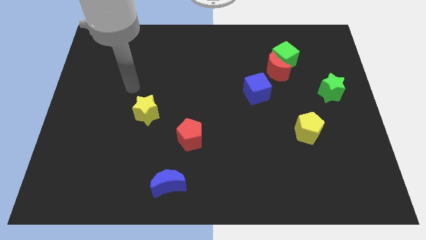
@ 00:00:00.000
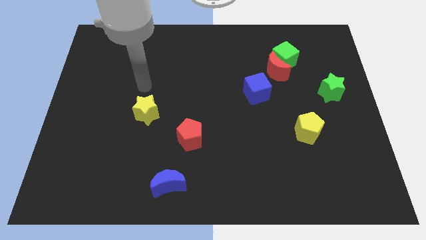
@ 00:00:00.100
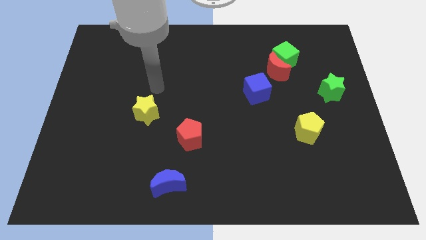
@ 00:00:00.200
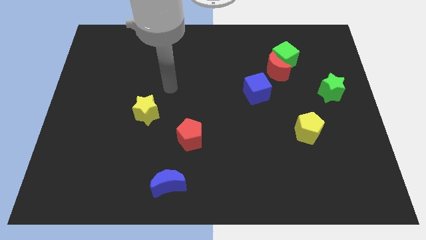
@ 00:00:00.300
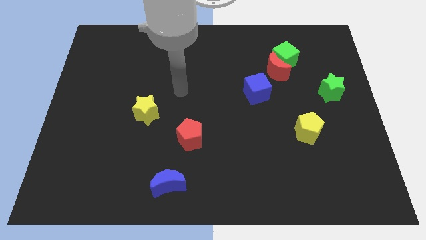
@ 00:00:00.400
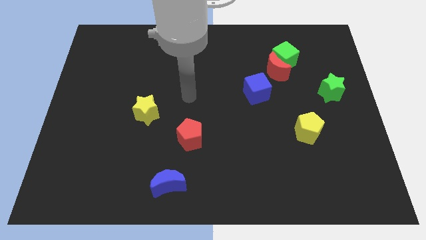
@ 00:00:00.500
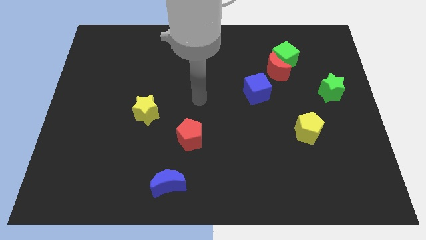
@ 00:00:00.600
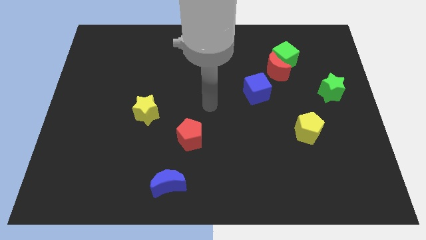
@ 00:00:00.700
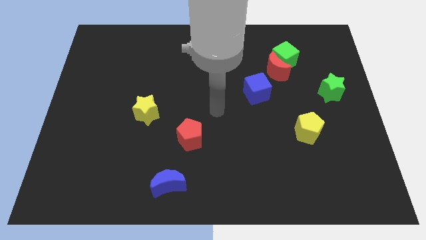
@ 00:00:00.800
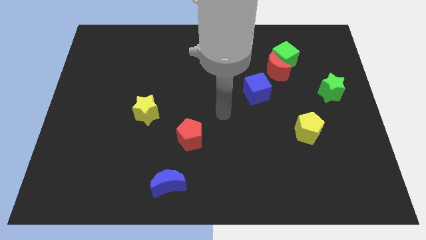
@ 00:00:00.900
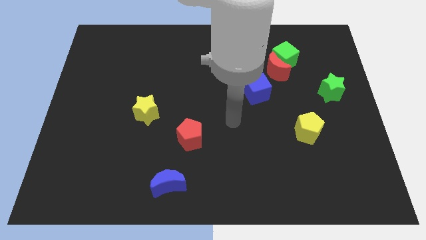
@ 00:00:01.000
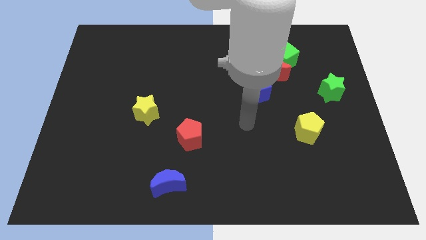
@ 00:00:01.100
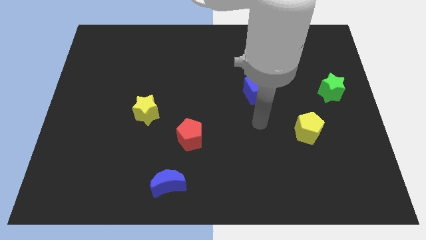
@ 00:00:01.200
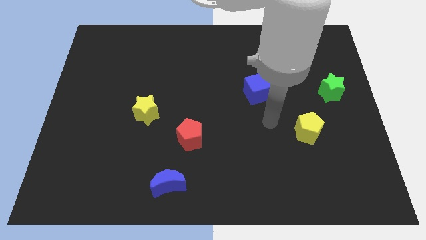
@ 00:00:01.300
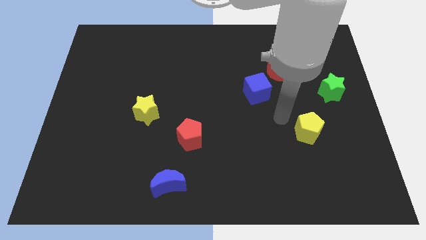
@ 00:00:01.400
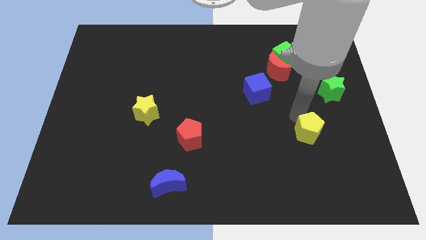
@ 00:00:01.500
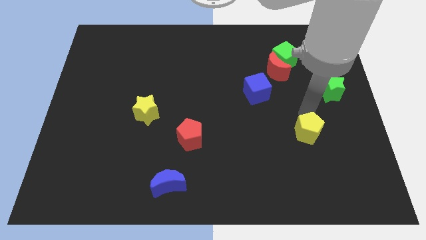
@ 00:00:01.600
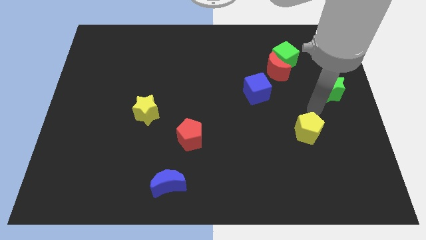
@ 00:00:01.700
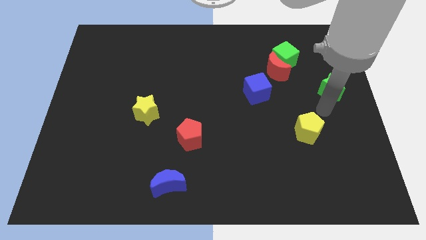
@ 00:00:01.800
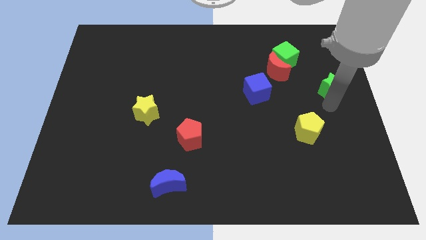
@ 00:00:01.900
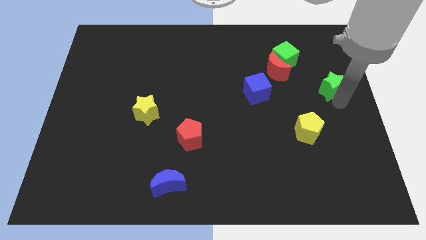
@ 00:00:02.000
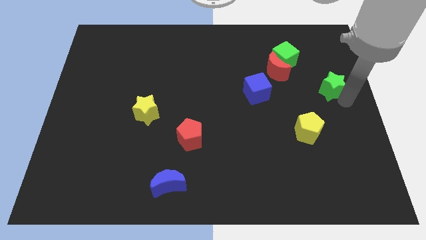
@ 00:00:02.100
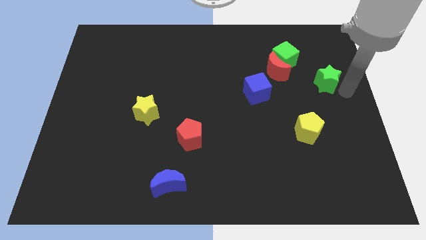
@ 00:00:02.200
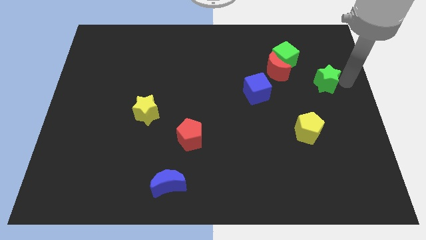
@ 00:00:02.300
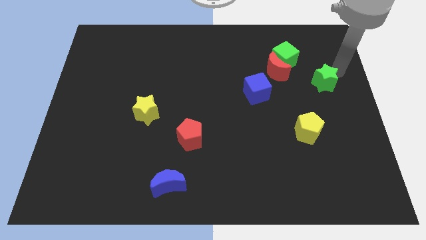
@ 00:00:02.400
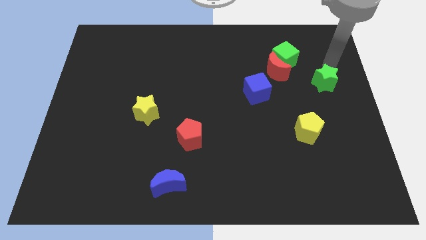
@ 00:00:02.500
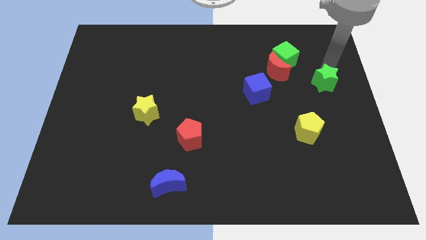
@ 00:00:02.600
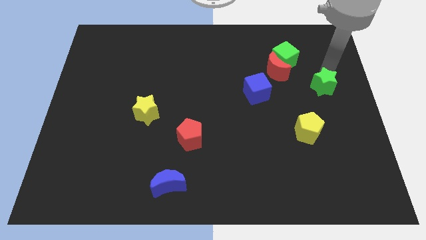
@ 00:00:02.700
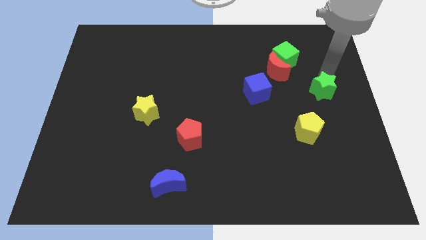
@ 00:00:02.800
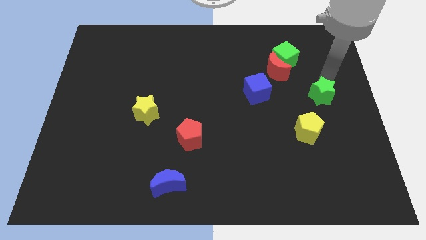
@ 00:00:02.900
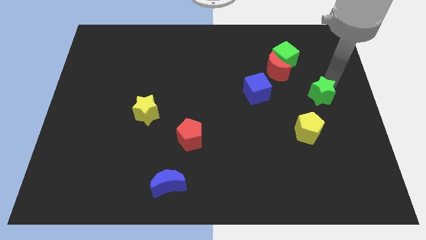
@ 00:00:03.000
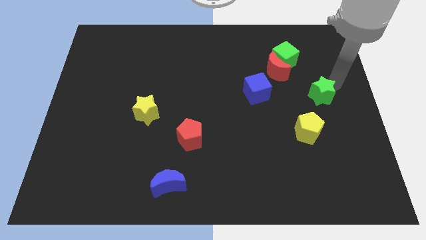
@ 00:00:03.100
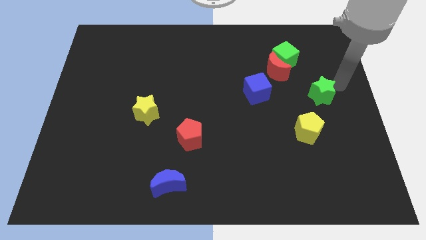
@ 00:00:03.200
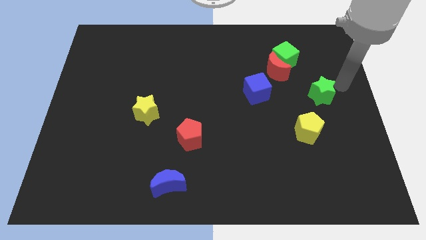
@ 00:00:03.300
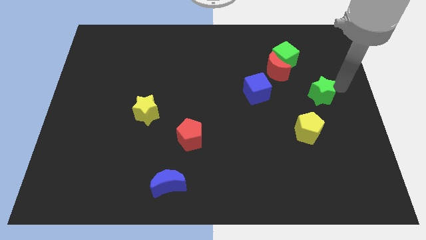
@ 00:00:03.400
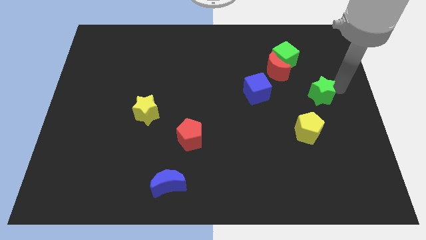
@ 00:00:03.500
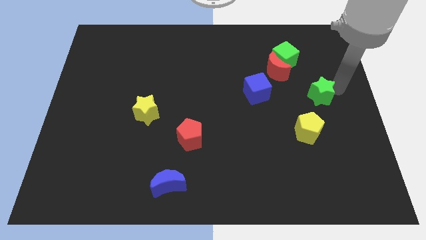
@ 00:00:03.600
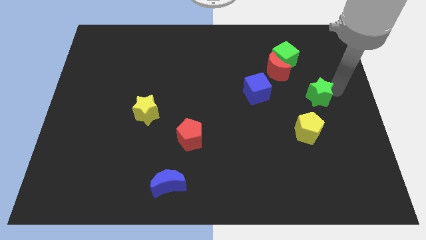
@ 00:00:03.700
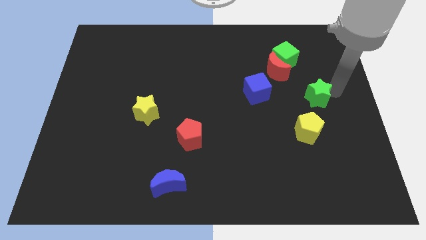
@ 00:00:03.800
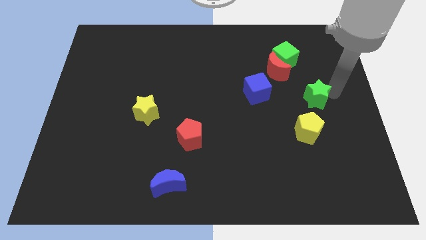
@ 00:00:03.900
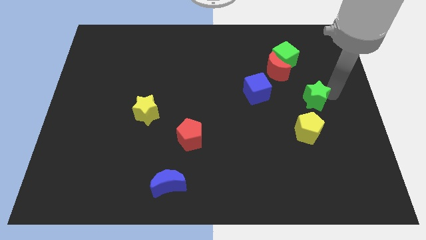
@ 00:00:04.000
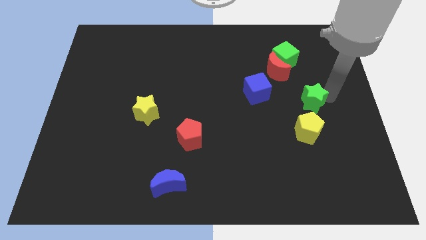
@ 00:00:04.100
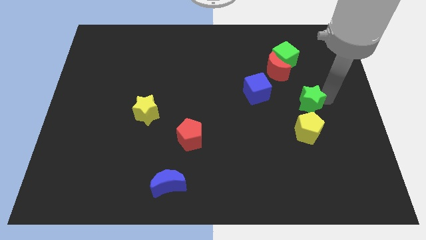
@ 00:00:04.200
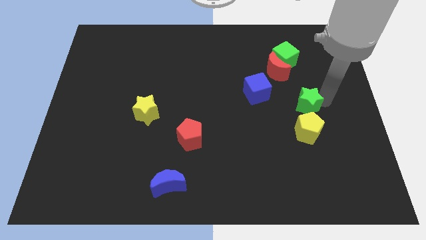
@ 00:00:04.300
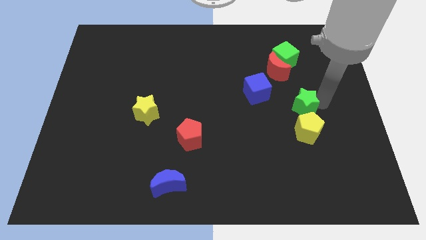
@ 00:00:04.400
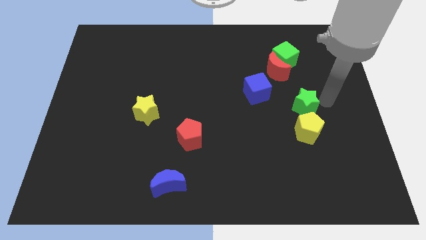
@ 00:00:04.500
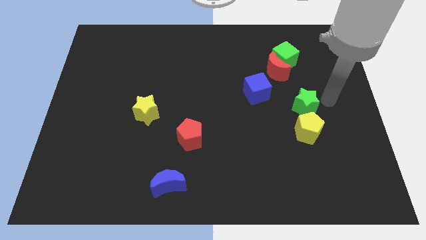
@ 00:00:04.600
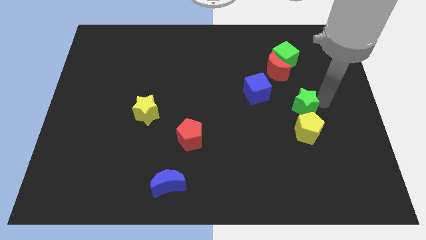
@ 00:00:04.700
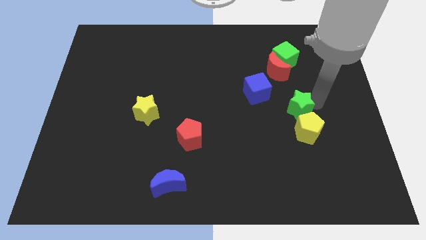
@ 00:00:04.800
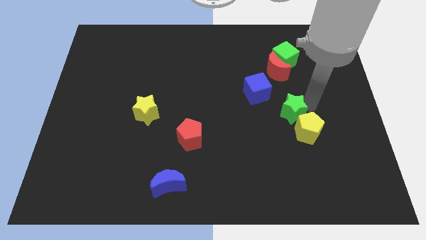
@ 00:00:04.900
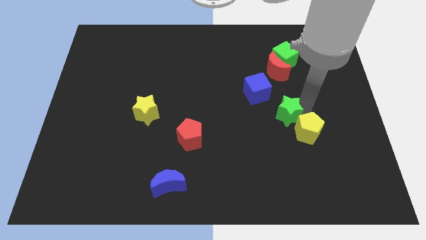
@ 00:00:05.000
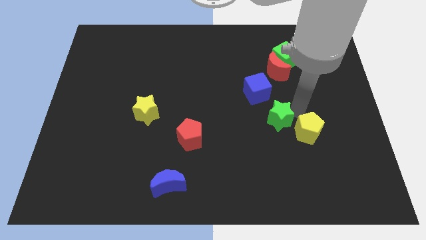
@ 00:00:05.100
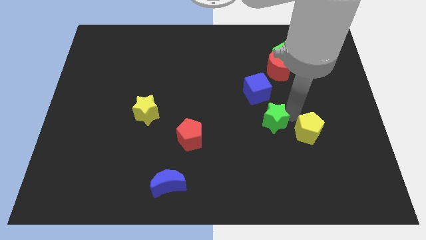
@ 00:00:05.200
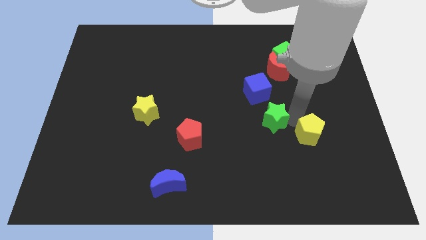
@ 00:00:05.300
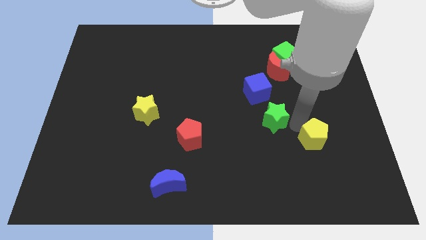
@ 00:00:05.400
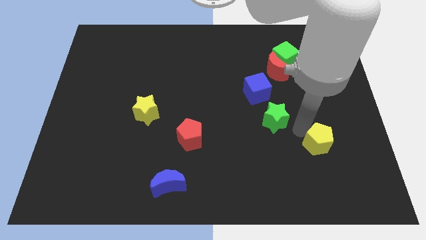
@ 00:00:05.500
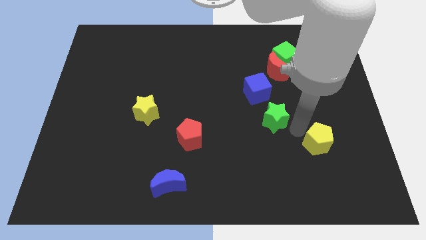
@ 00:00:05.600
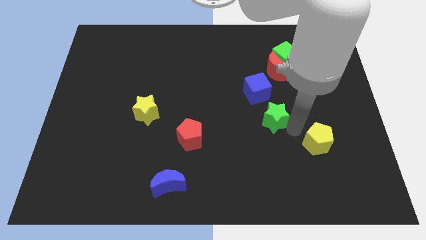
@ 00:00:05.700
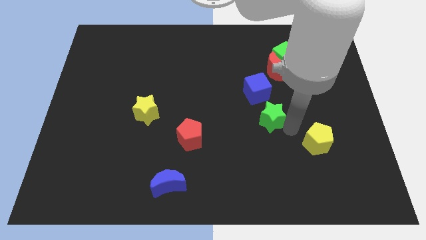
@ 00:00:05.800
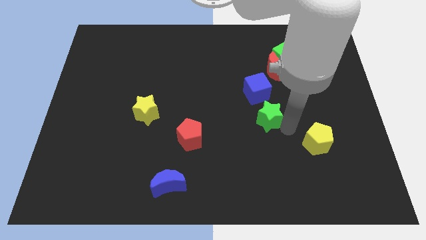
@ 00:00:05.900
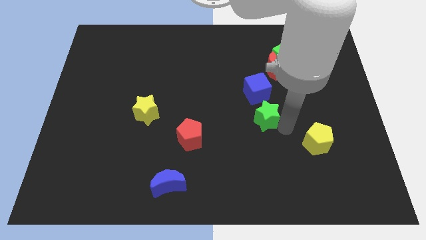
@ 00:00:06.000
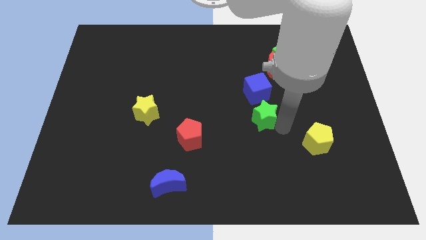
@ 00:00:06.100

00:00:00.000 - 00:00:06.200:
slide the green star to the center

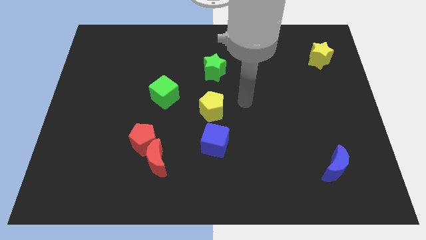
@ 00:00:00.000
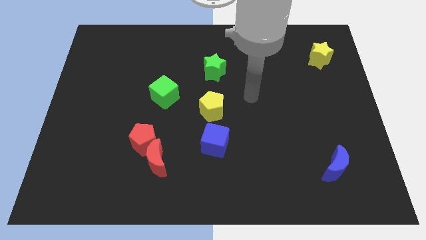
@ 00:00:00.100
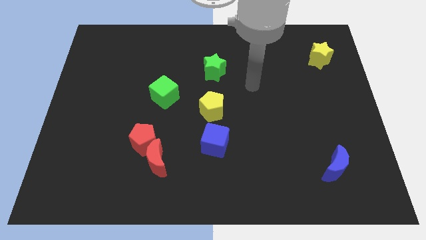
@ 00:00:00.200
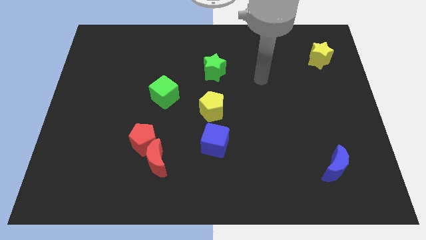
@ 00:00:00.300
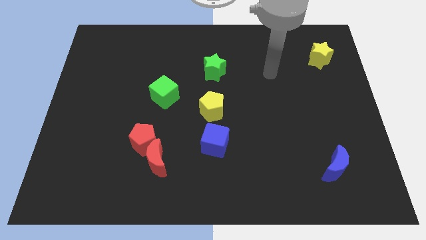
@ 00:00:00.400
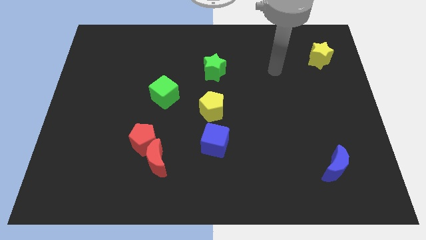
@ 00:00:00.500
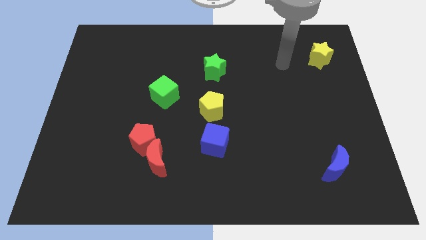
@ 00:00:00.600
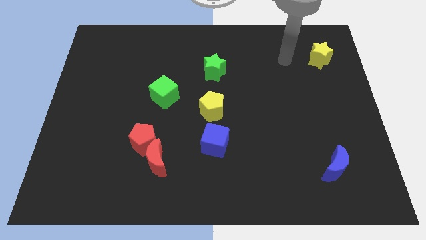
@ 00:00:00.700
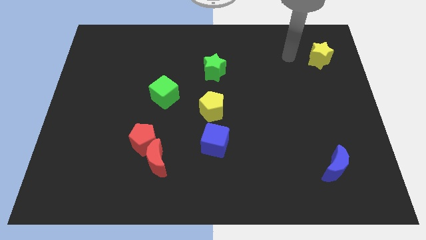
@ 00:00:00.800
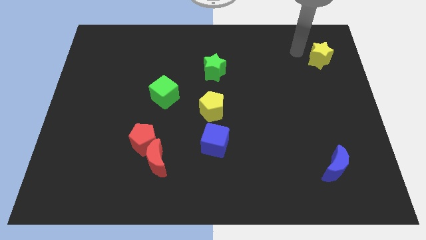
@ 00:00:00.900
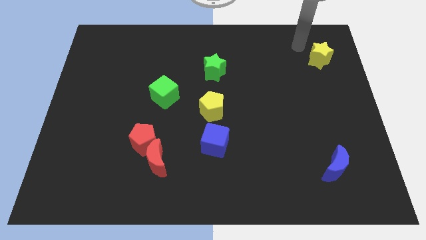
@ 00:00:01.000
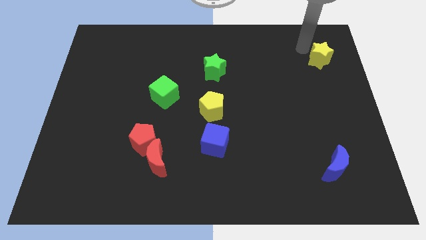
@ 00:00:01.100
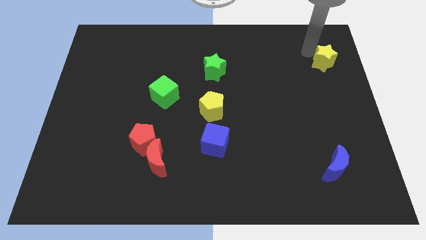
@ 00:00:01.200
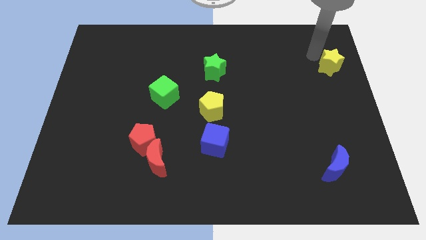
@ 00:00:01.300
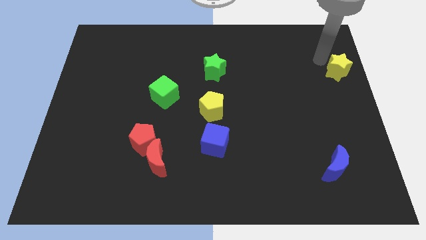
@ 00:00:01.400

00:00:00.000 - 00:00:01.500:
slide the yellow star to the center right
